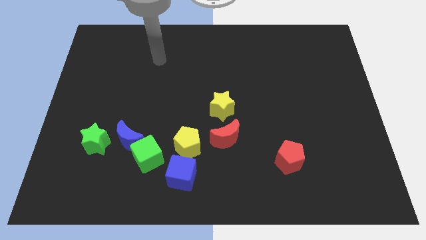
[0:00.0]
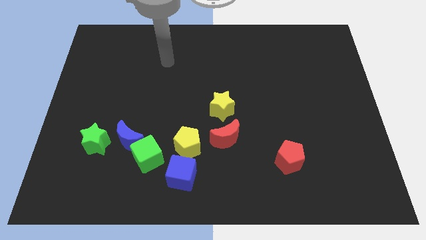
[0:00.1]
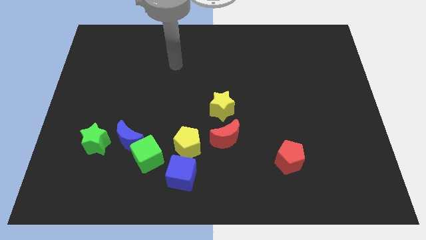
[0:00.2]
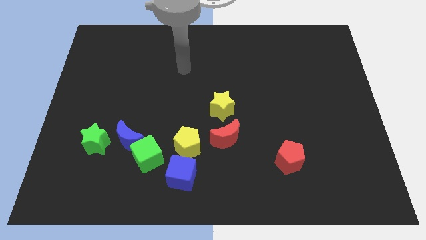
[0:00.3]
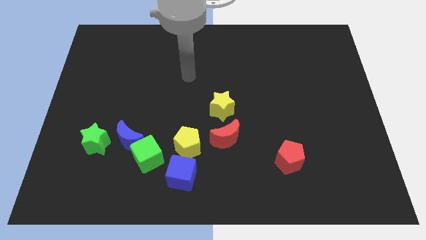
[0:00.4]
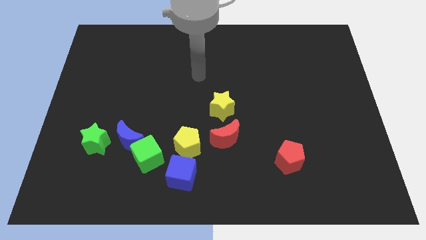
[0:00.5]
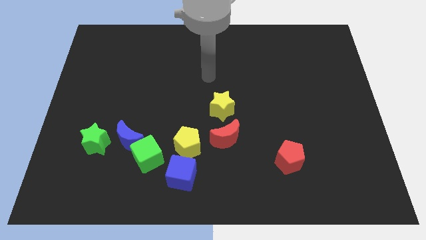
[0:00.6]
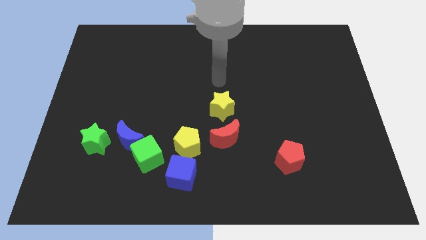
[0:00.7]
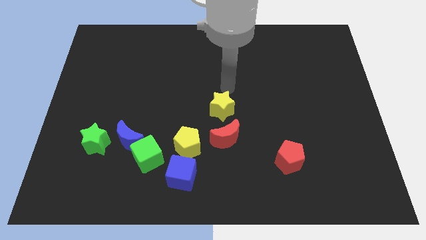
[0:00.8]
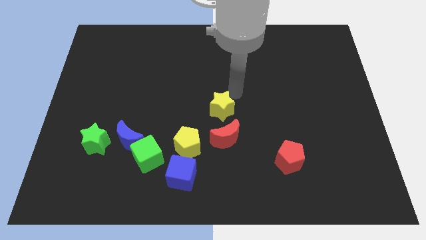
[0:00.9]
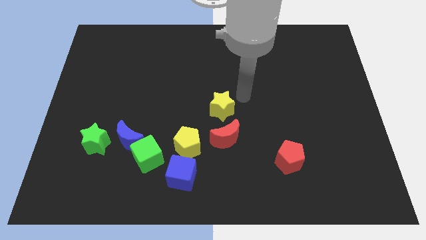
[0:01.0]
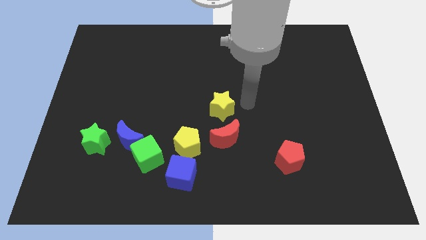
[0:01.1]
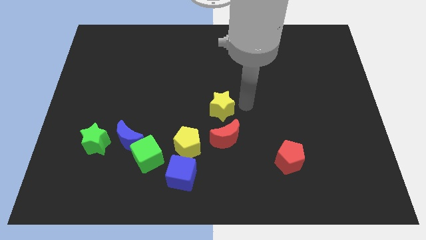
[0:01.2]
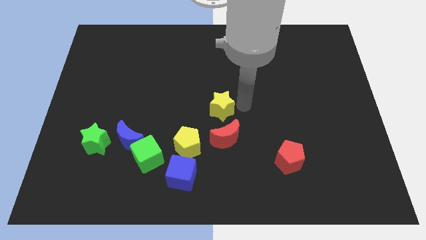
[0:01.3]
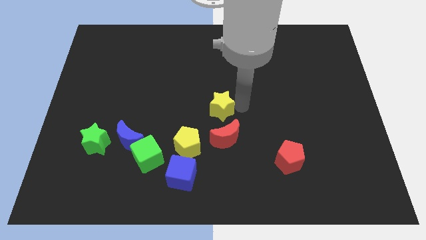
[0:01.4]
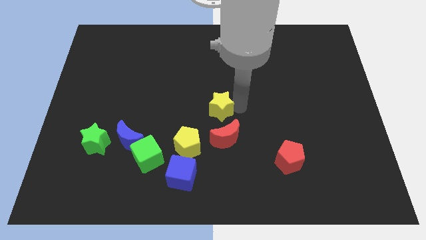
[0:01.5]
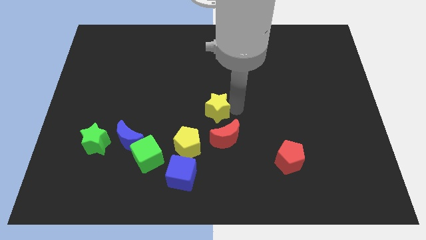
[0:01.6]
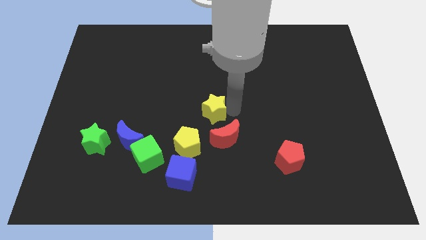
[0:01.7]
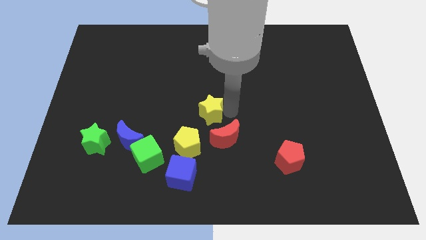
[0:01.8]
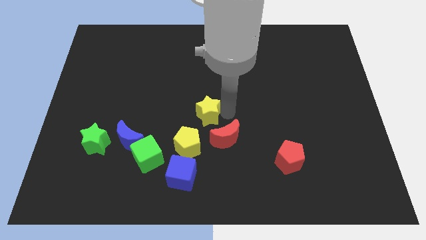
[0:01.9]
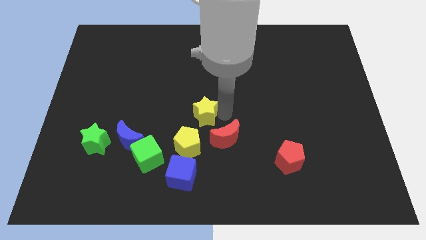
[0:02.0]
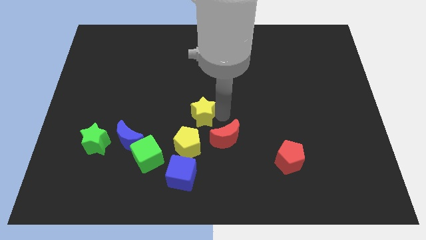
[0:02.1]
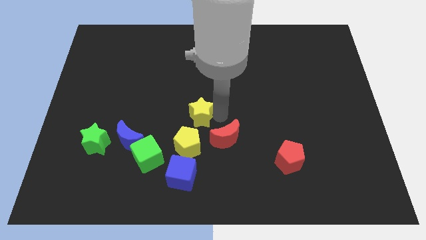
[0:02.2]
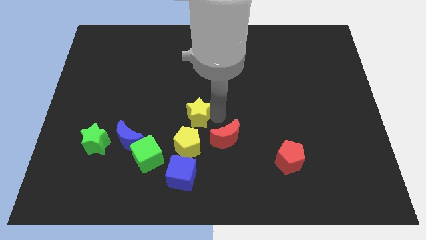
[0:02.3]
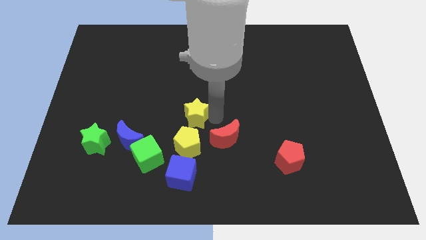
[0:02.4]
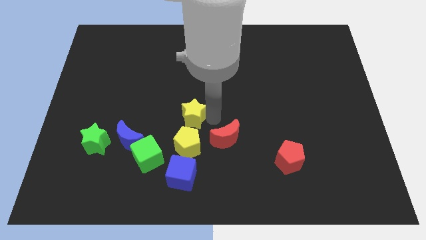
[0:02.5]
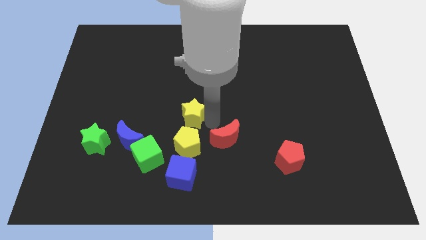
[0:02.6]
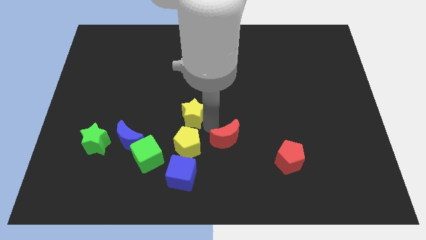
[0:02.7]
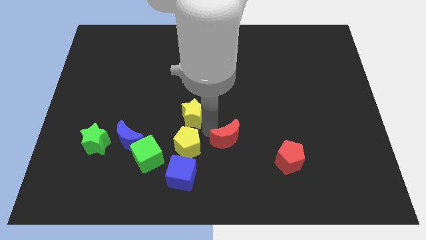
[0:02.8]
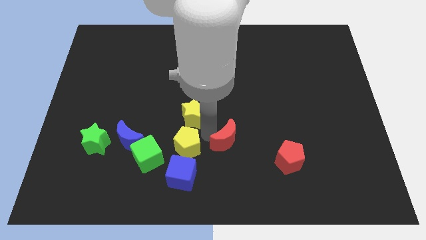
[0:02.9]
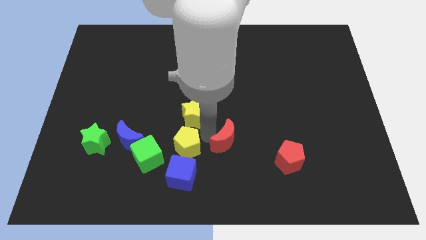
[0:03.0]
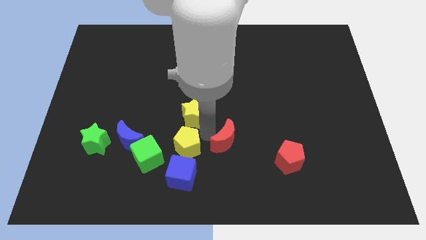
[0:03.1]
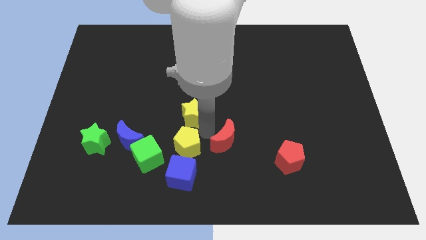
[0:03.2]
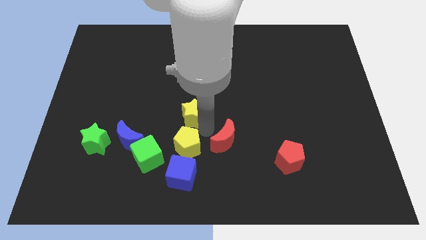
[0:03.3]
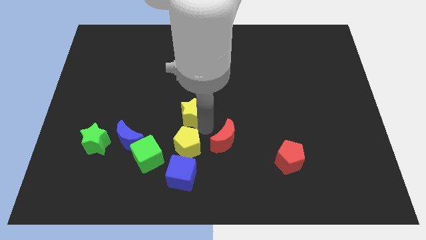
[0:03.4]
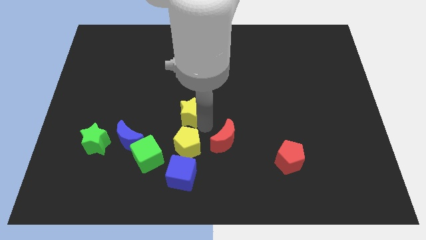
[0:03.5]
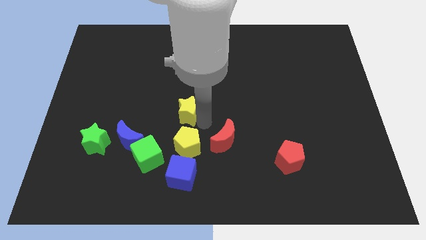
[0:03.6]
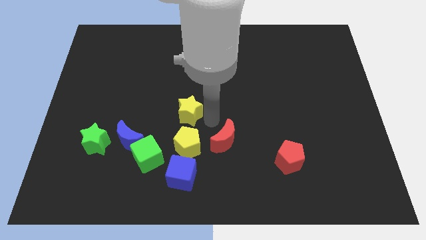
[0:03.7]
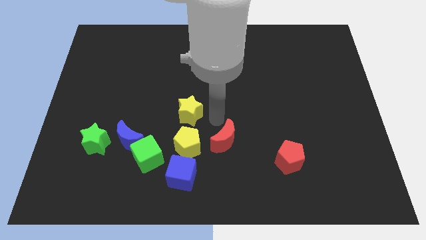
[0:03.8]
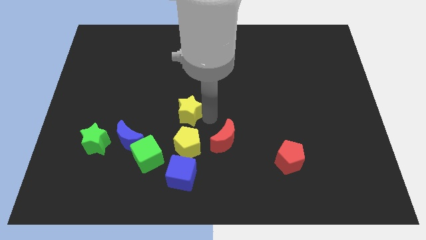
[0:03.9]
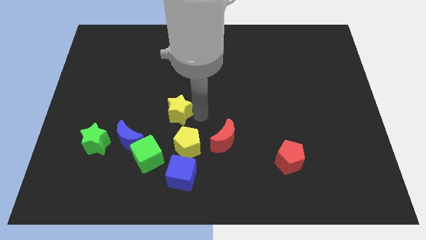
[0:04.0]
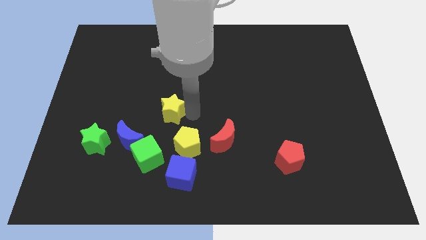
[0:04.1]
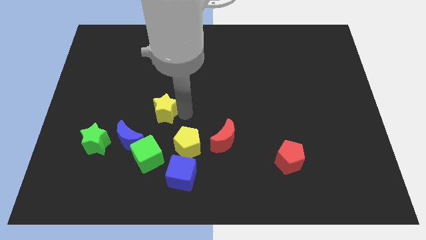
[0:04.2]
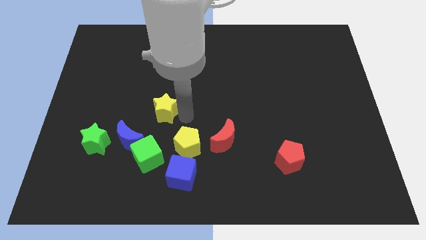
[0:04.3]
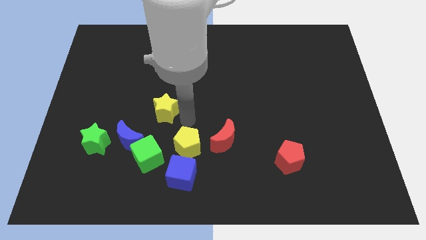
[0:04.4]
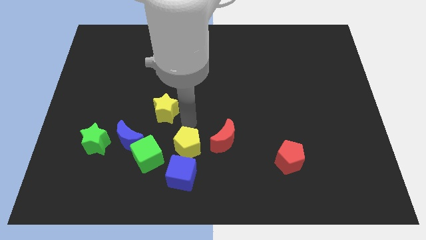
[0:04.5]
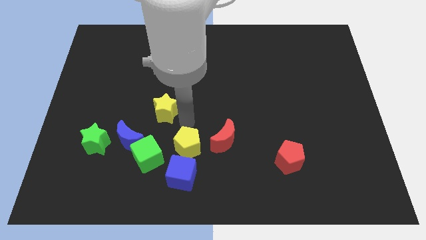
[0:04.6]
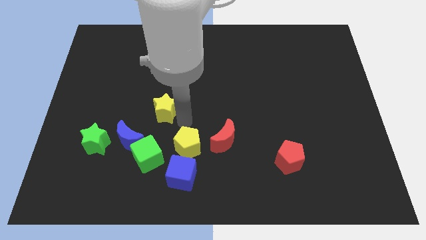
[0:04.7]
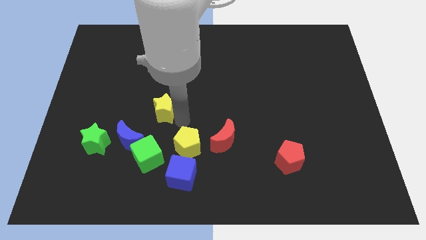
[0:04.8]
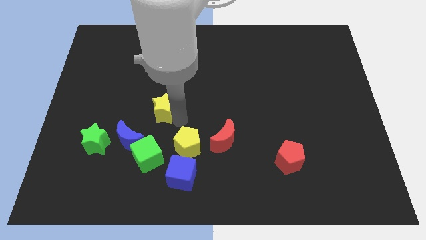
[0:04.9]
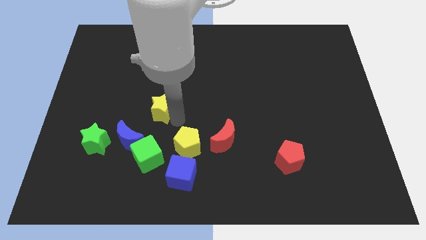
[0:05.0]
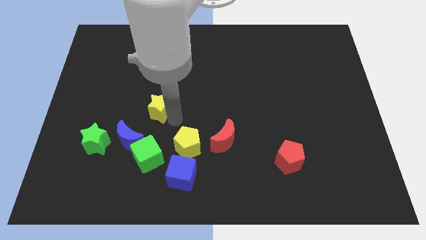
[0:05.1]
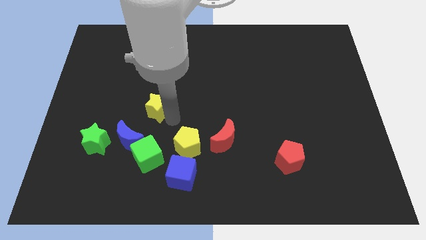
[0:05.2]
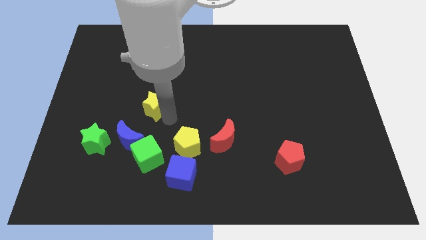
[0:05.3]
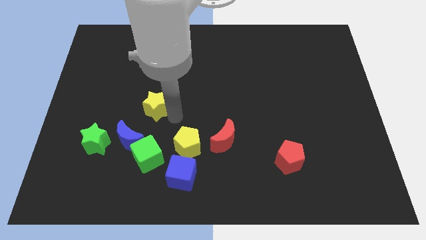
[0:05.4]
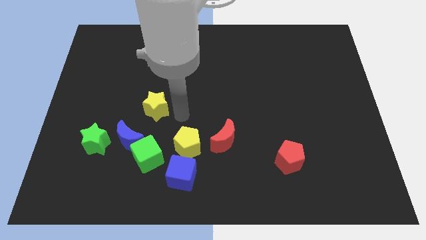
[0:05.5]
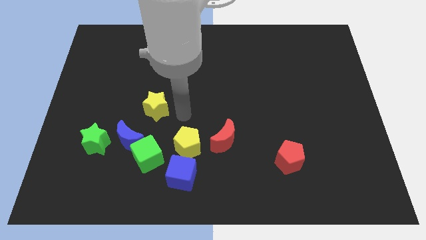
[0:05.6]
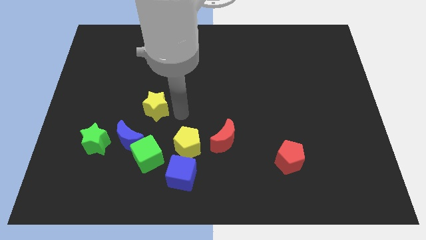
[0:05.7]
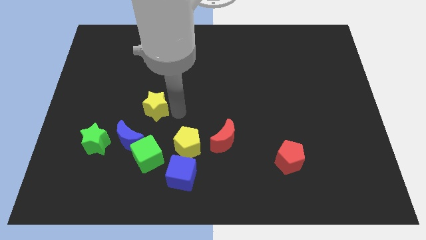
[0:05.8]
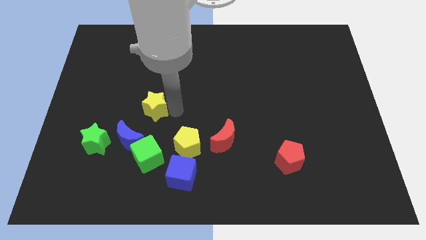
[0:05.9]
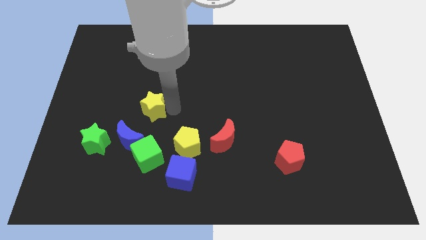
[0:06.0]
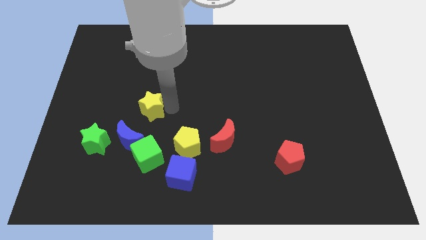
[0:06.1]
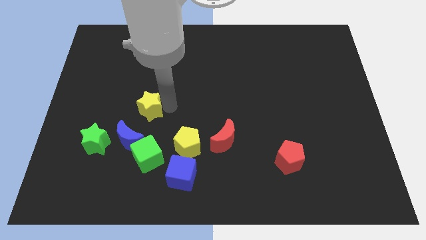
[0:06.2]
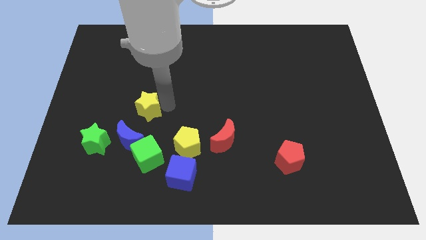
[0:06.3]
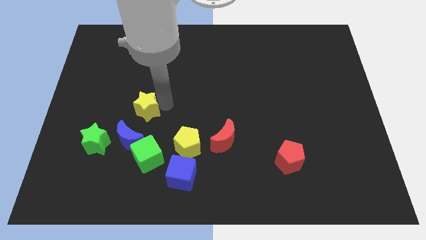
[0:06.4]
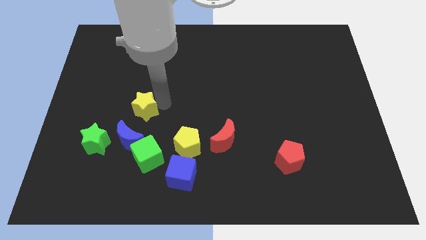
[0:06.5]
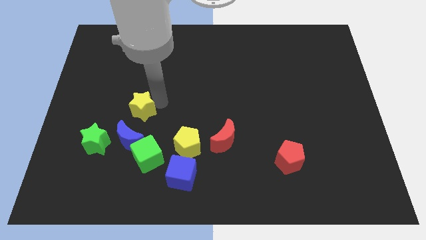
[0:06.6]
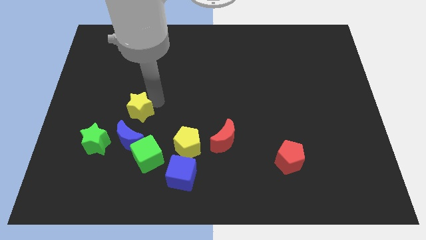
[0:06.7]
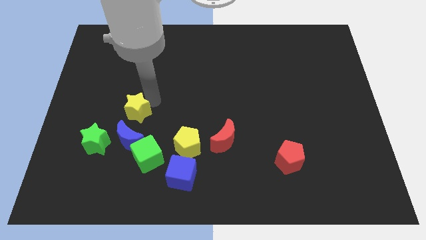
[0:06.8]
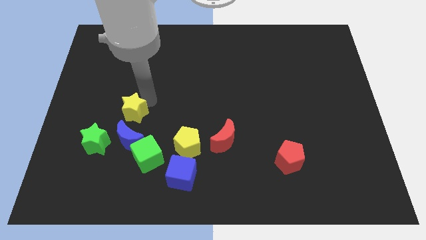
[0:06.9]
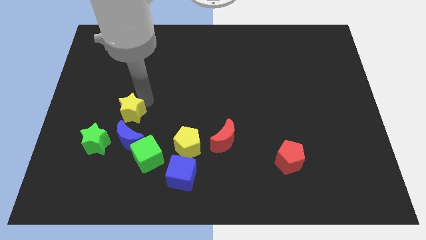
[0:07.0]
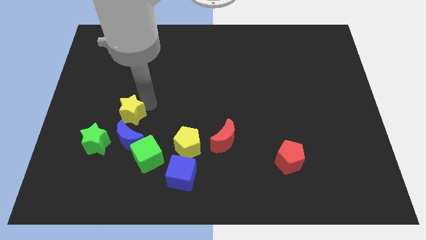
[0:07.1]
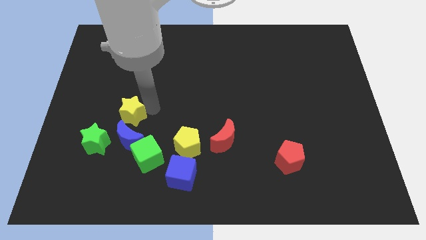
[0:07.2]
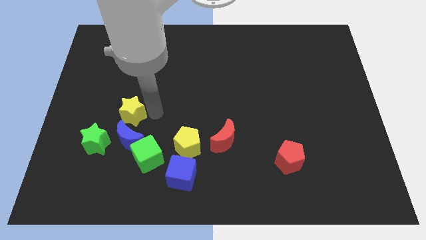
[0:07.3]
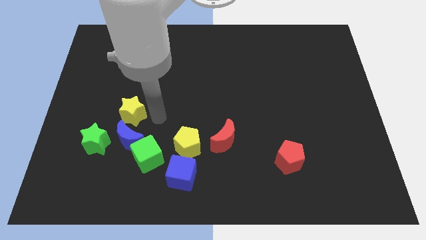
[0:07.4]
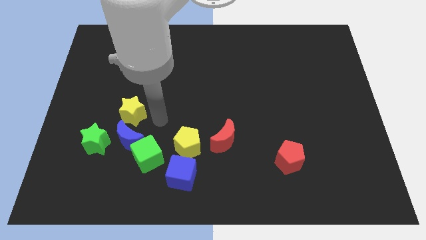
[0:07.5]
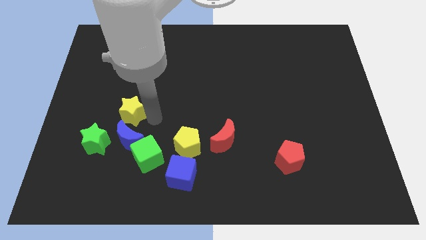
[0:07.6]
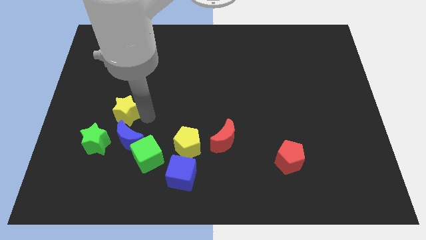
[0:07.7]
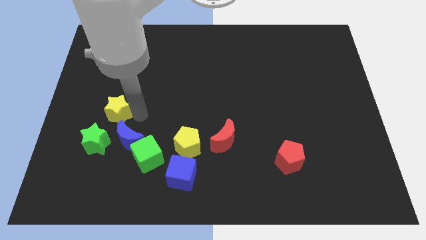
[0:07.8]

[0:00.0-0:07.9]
put the yellow star above the green star
